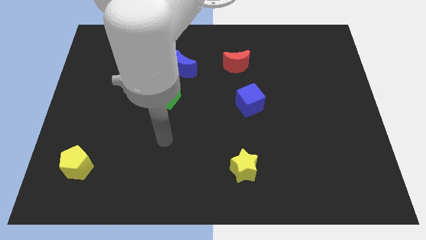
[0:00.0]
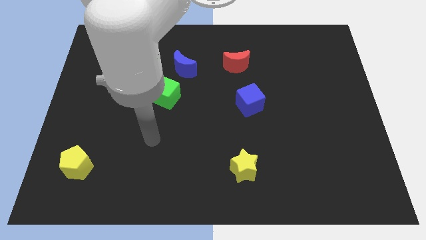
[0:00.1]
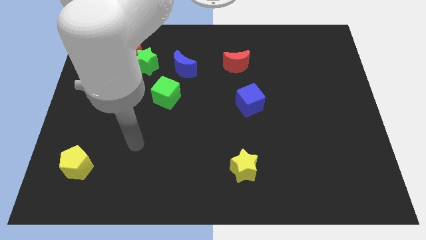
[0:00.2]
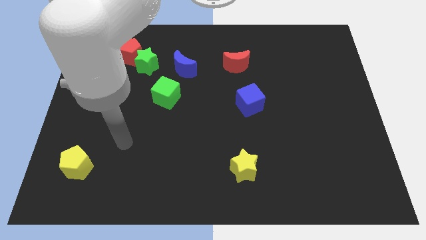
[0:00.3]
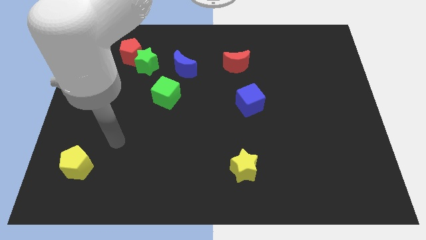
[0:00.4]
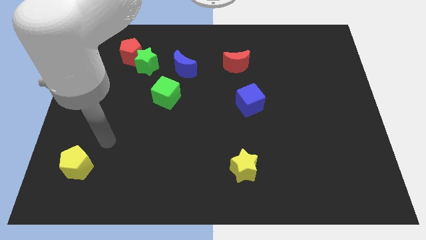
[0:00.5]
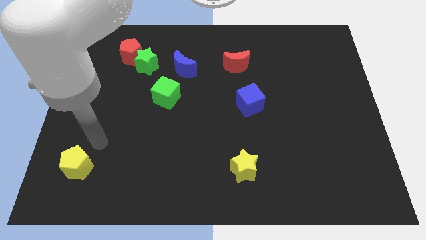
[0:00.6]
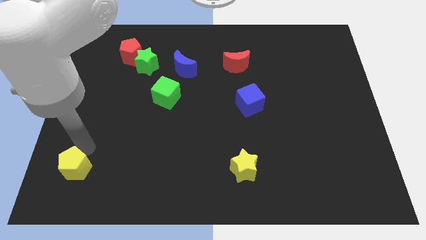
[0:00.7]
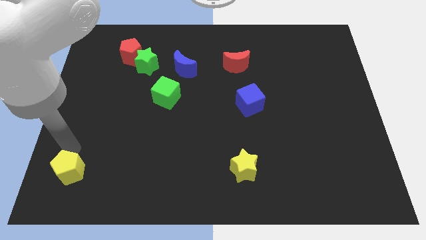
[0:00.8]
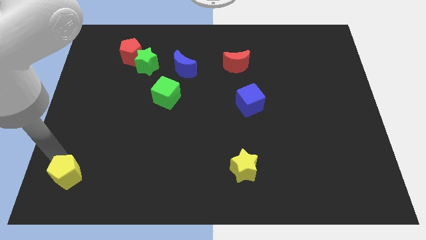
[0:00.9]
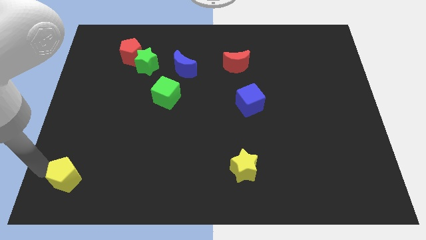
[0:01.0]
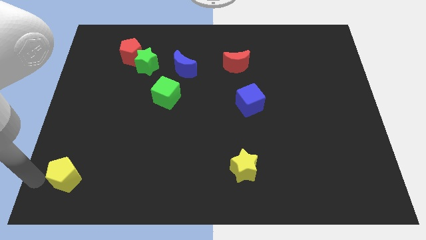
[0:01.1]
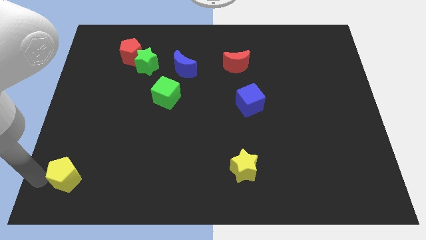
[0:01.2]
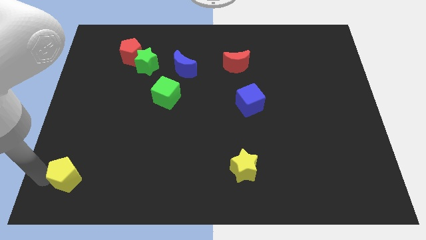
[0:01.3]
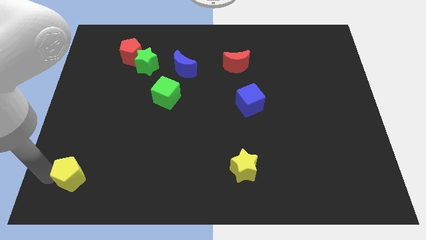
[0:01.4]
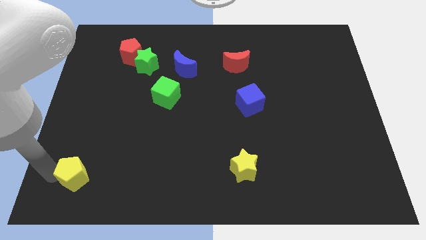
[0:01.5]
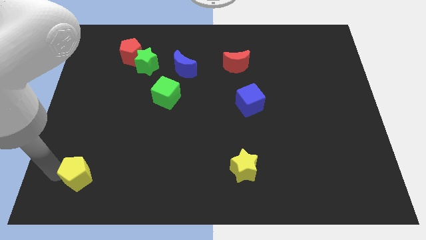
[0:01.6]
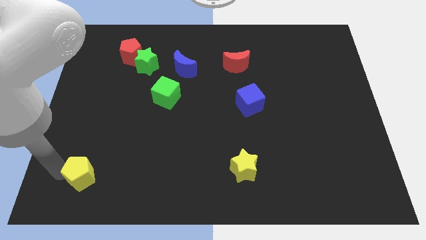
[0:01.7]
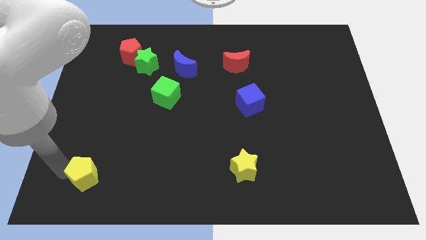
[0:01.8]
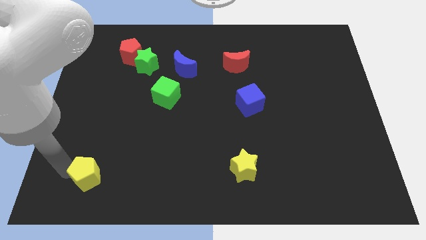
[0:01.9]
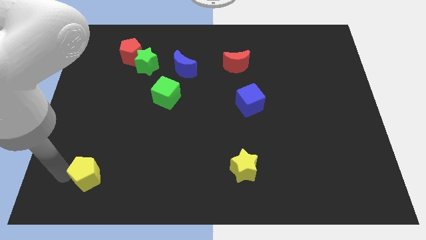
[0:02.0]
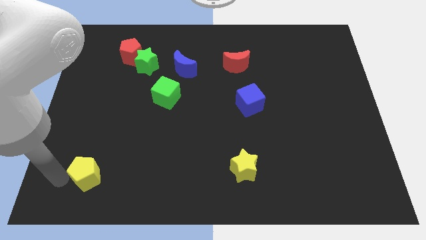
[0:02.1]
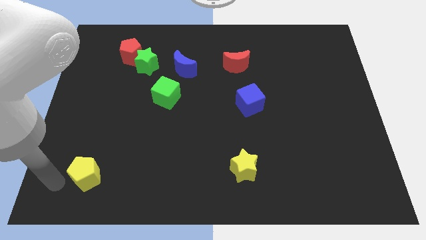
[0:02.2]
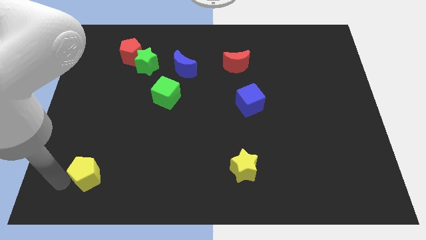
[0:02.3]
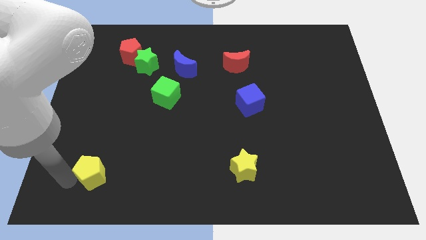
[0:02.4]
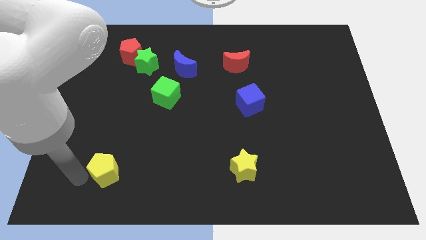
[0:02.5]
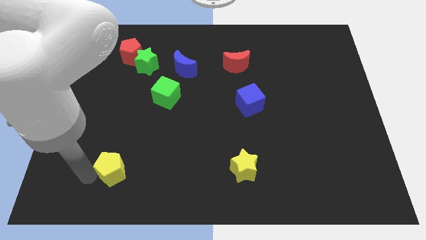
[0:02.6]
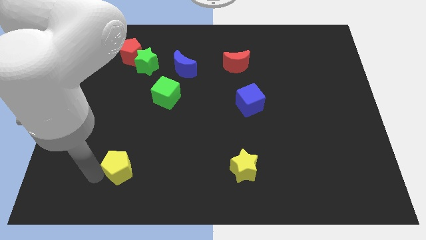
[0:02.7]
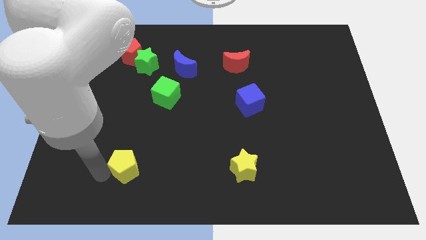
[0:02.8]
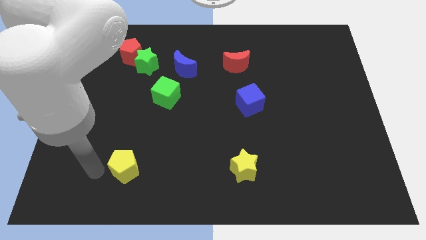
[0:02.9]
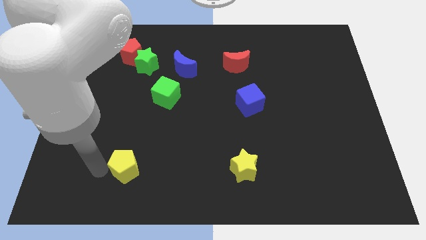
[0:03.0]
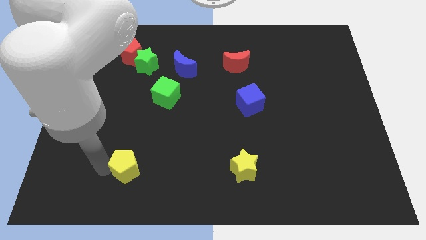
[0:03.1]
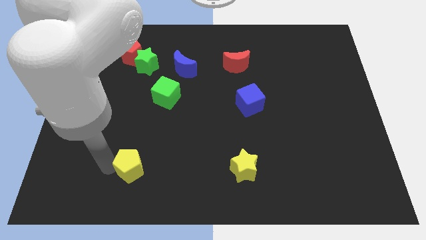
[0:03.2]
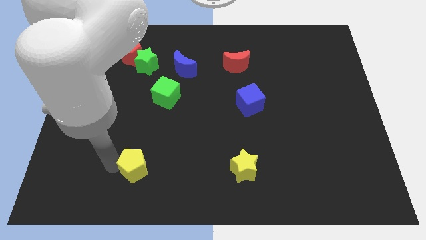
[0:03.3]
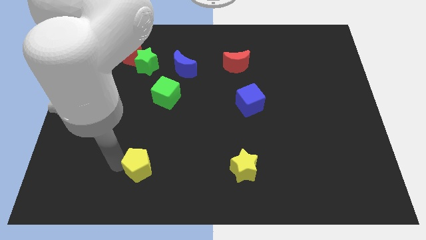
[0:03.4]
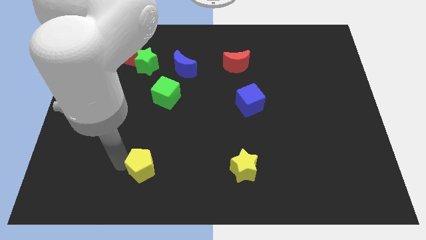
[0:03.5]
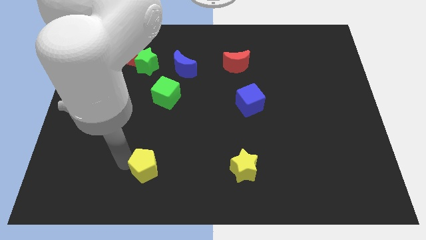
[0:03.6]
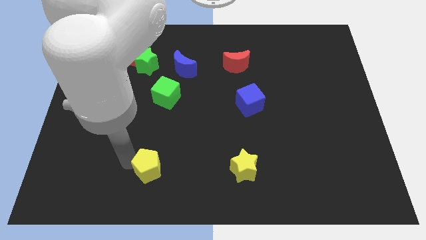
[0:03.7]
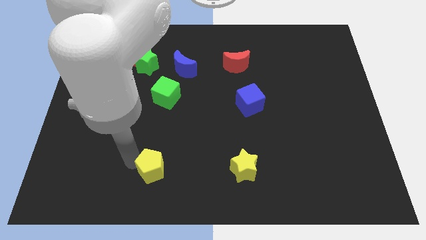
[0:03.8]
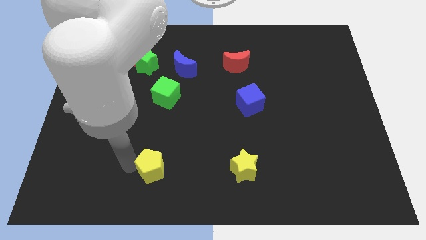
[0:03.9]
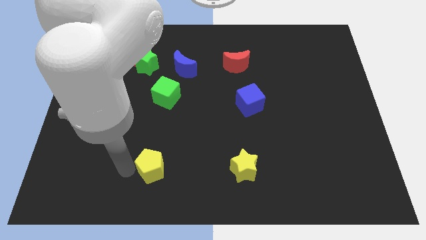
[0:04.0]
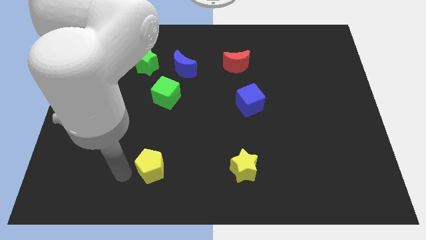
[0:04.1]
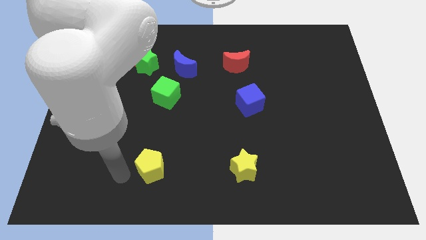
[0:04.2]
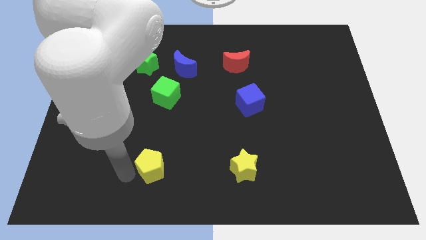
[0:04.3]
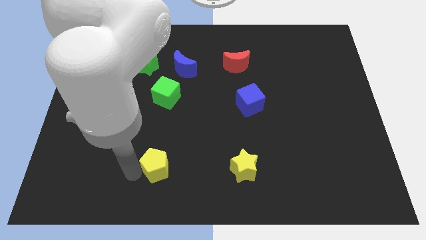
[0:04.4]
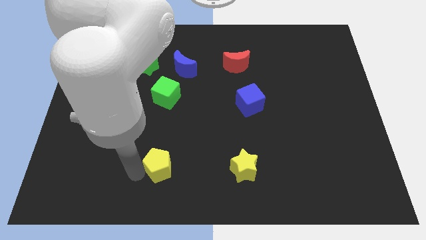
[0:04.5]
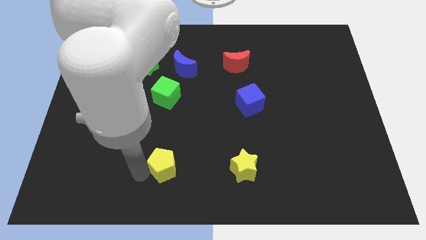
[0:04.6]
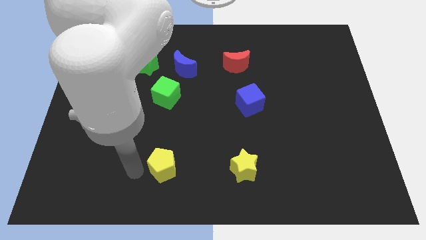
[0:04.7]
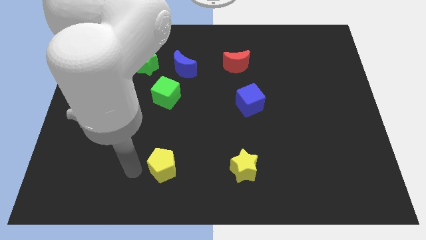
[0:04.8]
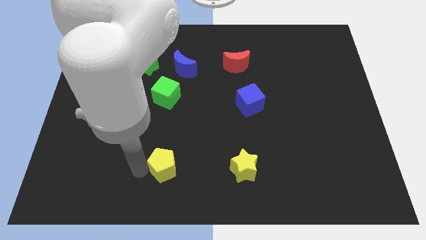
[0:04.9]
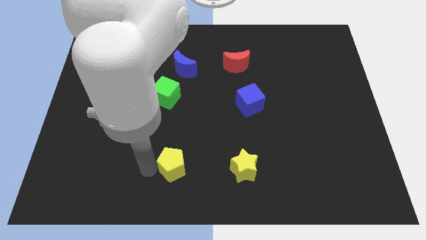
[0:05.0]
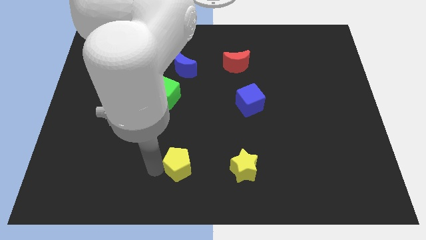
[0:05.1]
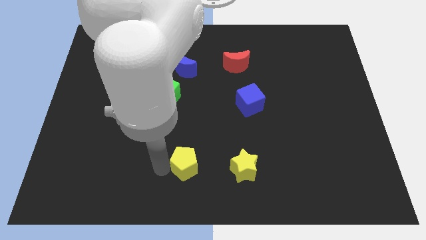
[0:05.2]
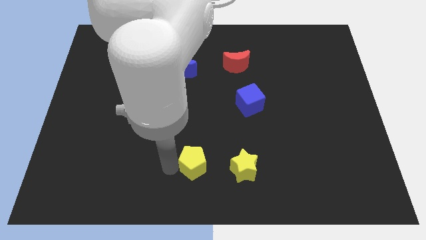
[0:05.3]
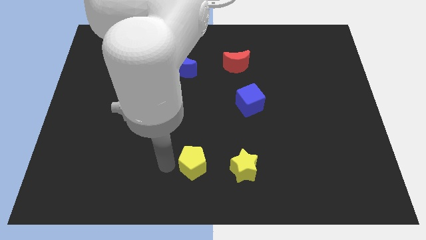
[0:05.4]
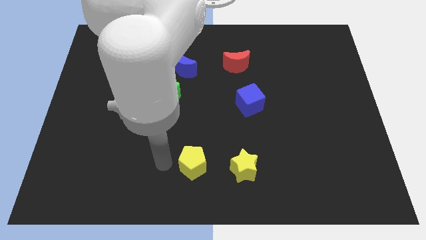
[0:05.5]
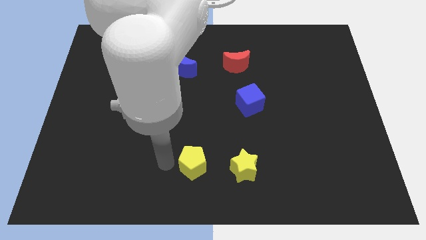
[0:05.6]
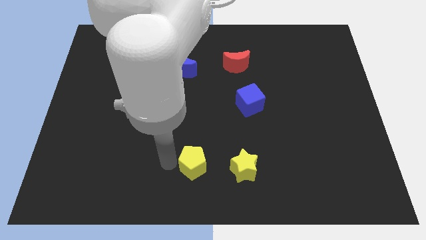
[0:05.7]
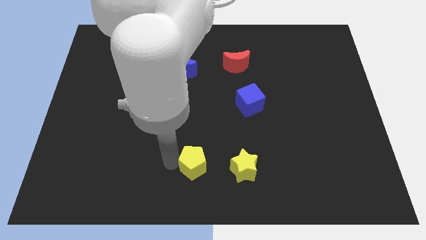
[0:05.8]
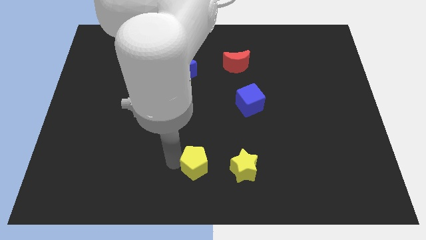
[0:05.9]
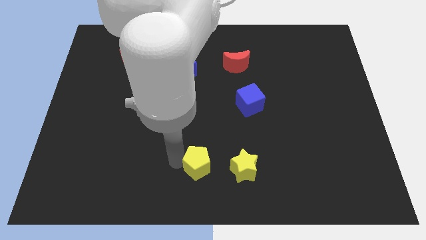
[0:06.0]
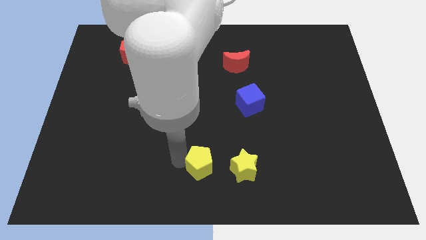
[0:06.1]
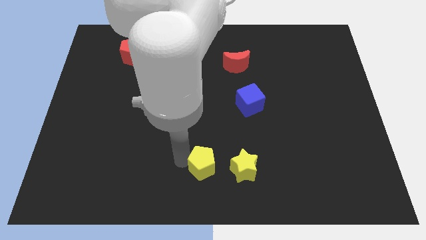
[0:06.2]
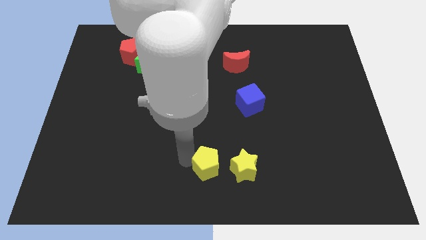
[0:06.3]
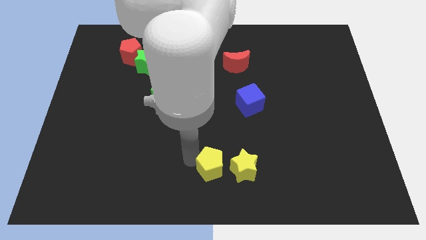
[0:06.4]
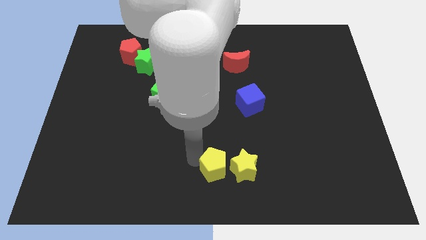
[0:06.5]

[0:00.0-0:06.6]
move the yellow pentagon next to the yellow star

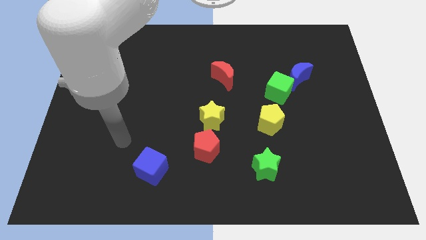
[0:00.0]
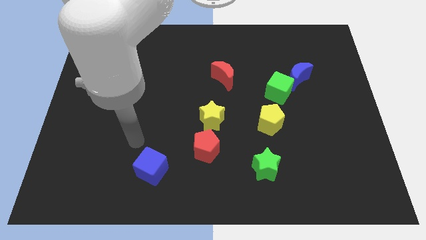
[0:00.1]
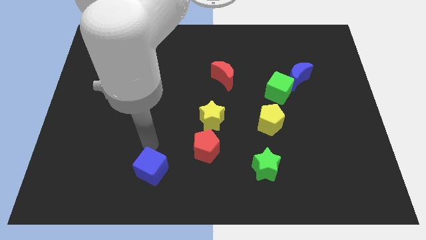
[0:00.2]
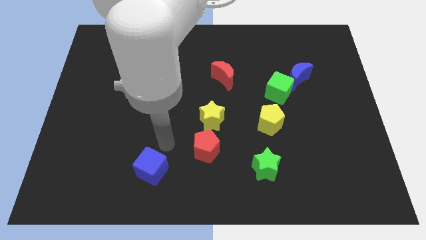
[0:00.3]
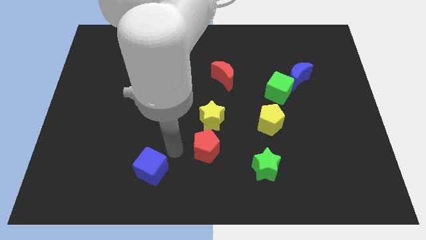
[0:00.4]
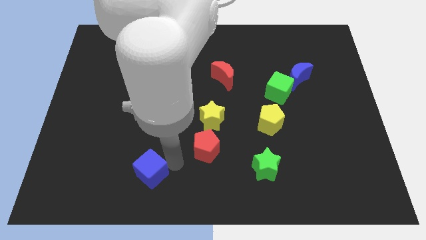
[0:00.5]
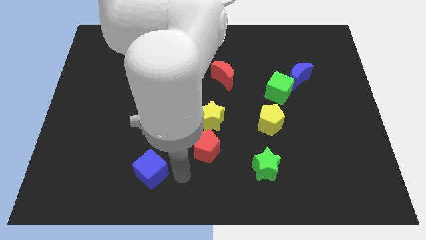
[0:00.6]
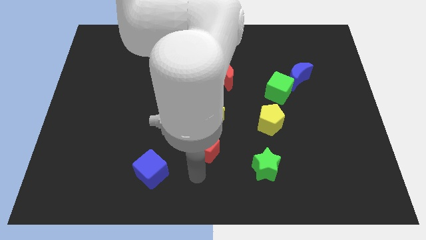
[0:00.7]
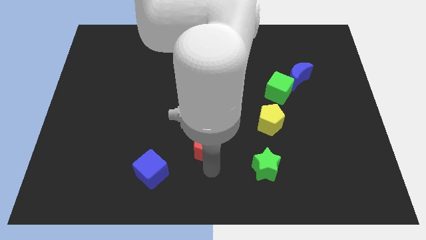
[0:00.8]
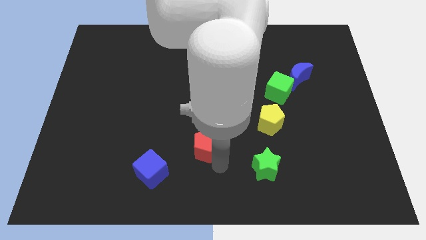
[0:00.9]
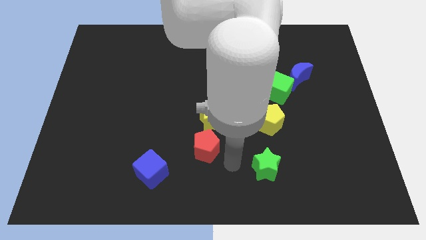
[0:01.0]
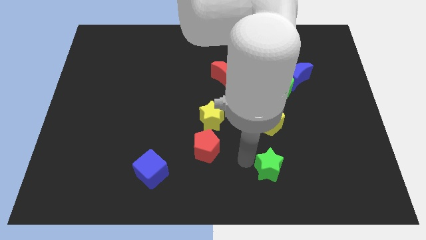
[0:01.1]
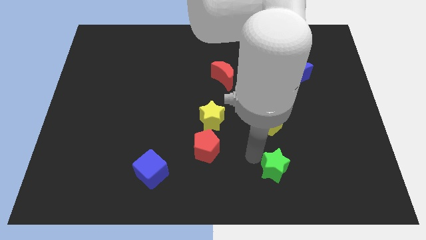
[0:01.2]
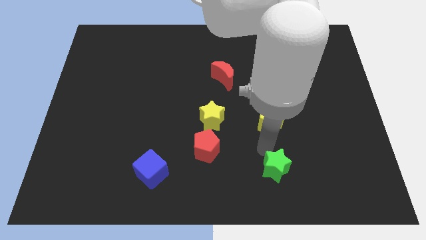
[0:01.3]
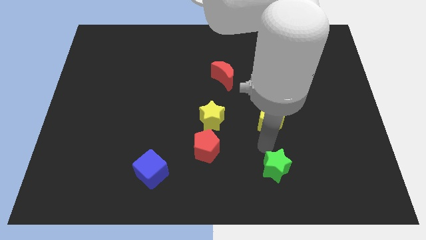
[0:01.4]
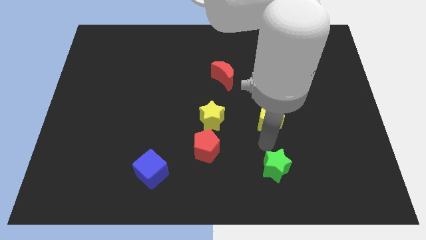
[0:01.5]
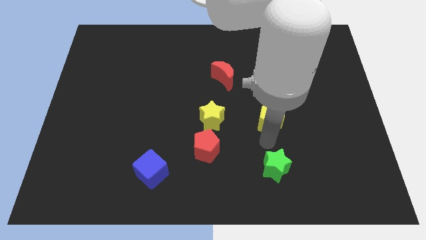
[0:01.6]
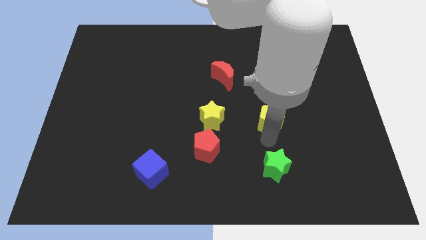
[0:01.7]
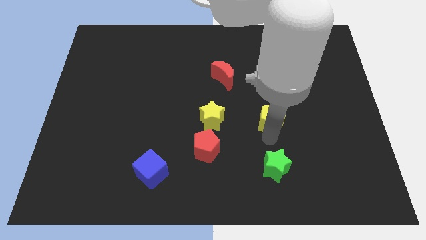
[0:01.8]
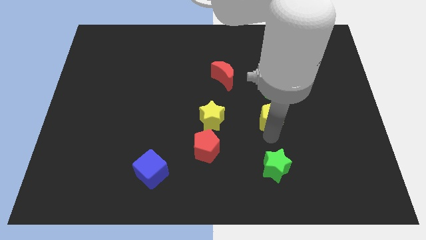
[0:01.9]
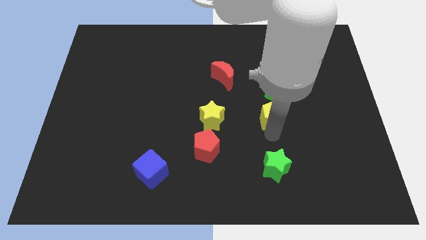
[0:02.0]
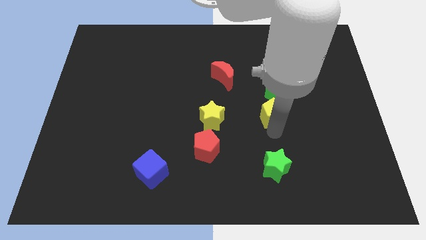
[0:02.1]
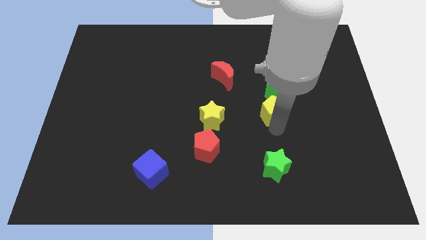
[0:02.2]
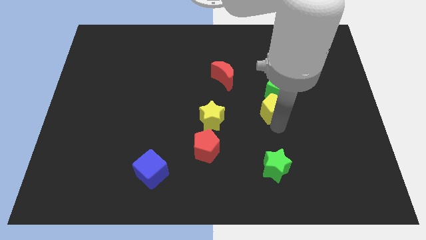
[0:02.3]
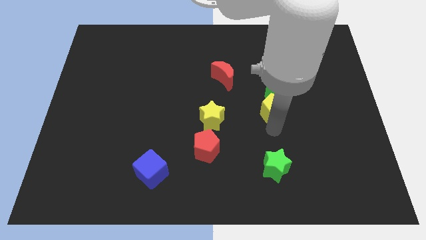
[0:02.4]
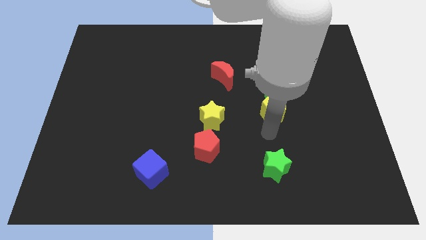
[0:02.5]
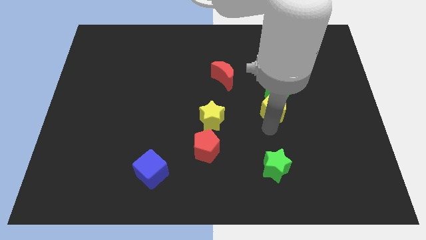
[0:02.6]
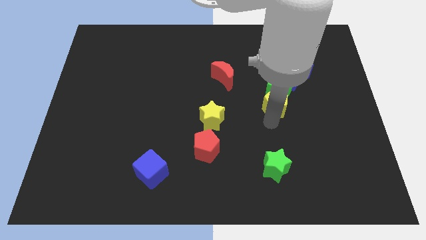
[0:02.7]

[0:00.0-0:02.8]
move the yellow pentagon close to the green cube
